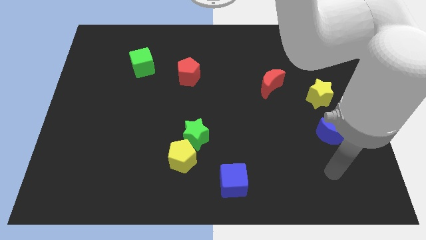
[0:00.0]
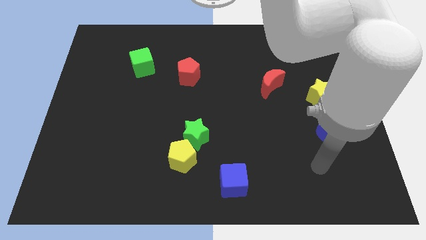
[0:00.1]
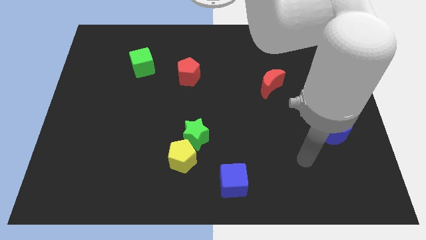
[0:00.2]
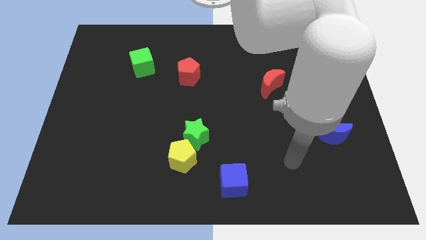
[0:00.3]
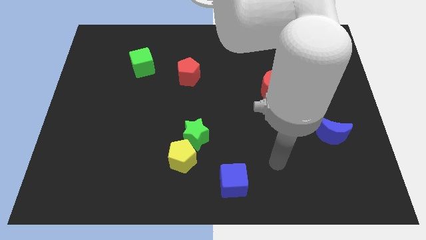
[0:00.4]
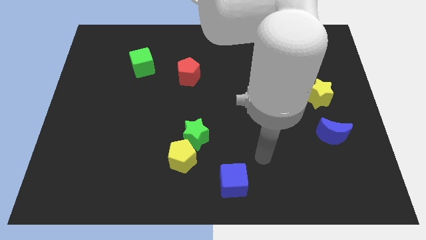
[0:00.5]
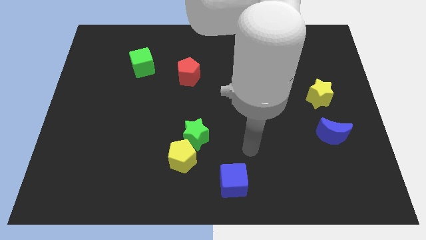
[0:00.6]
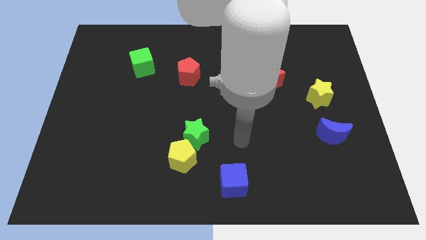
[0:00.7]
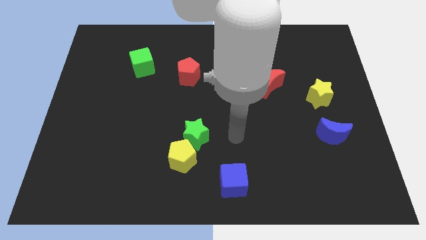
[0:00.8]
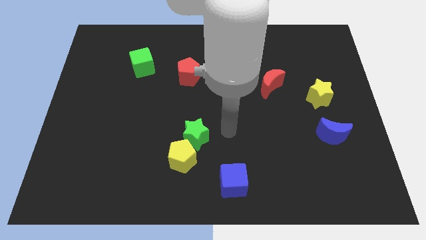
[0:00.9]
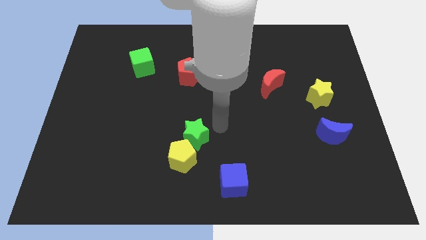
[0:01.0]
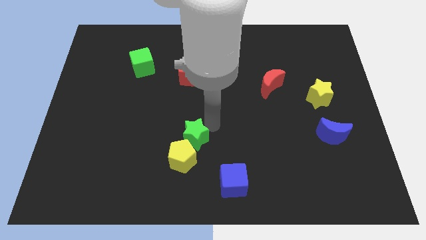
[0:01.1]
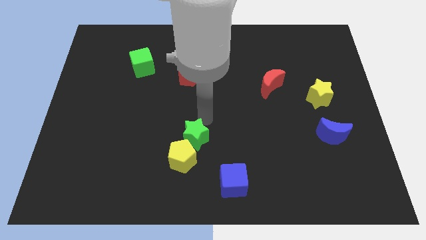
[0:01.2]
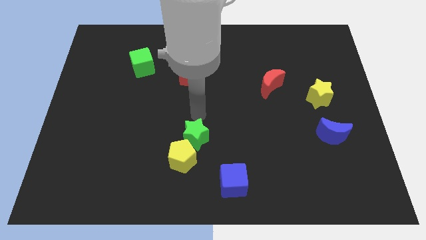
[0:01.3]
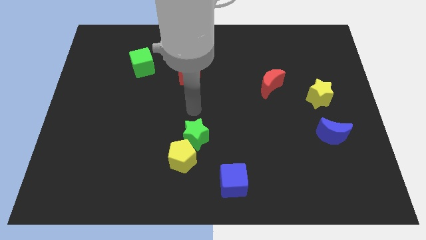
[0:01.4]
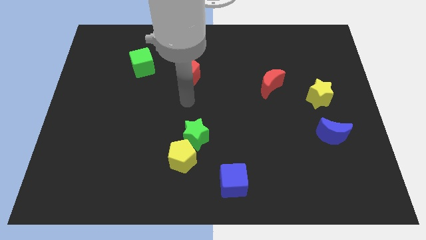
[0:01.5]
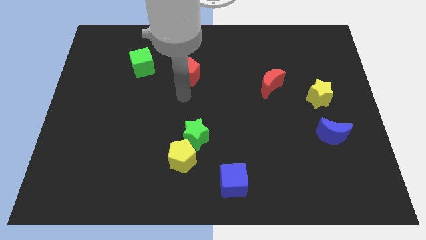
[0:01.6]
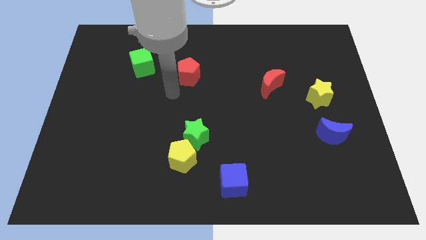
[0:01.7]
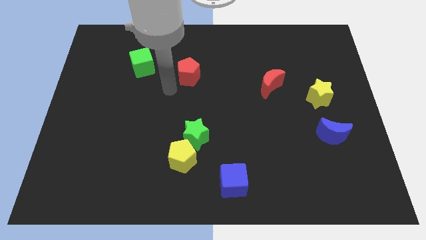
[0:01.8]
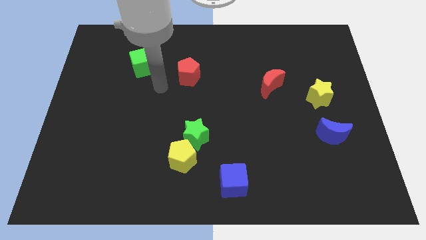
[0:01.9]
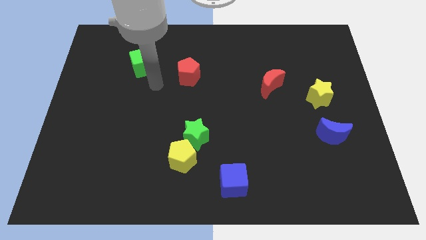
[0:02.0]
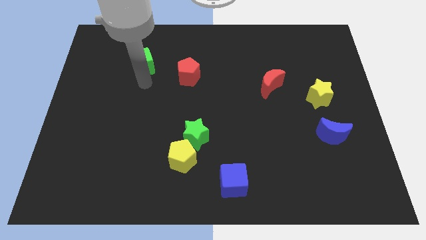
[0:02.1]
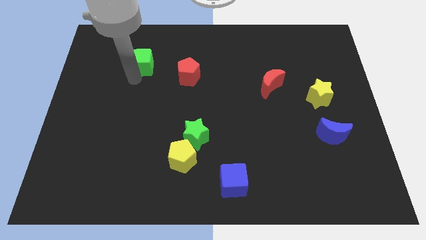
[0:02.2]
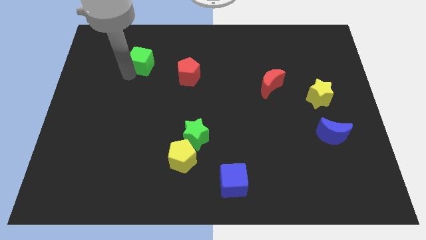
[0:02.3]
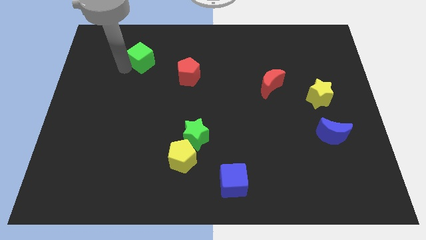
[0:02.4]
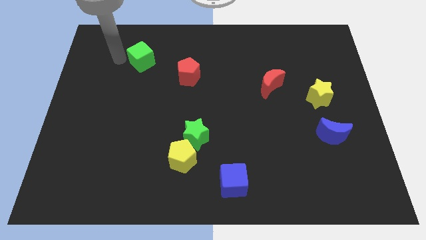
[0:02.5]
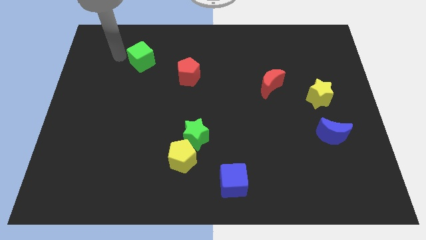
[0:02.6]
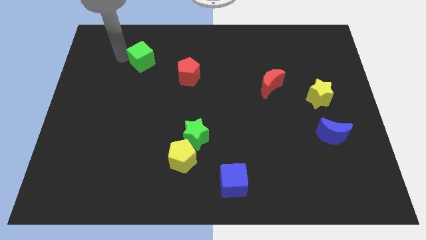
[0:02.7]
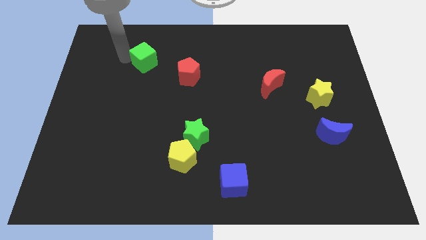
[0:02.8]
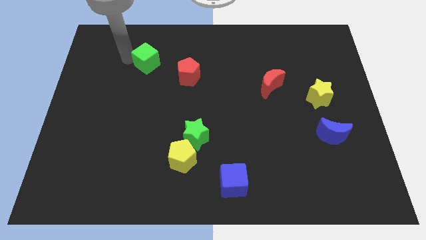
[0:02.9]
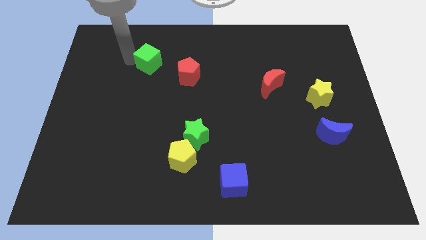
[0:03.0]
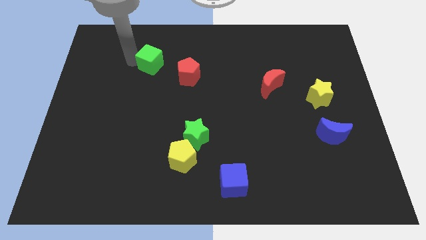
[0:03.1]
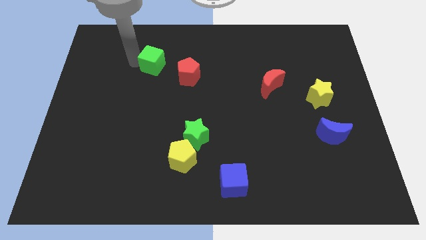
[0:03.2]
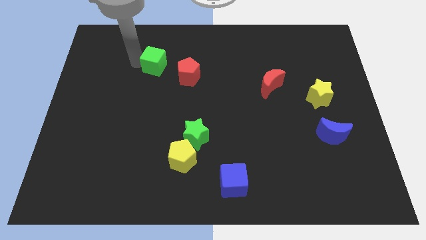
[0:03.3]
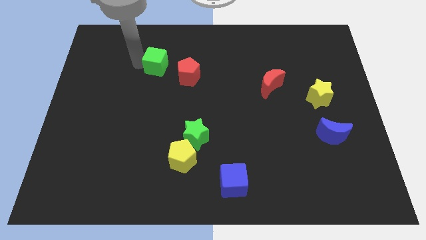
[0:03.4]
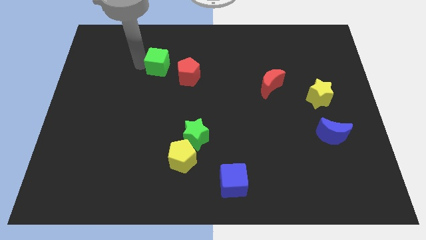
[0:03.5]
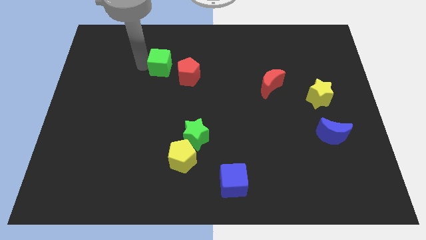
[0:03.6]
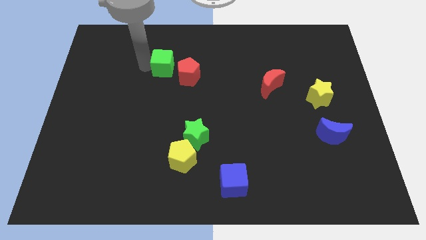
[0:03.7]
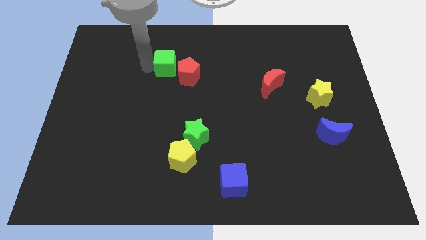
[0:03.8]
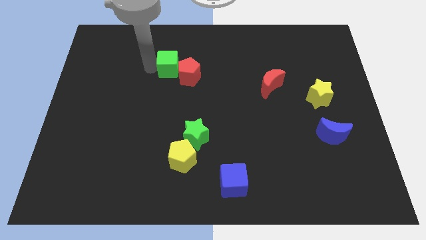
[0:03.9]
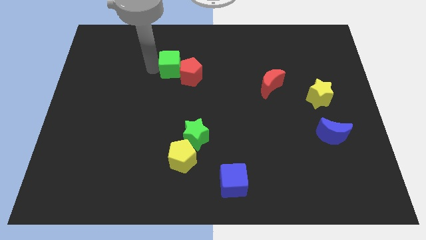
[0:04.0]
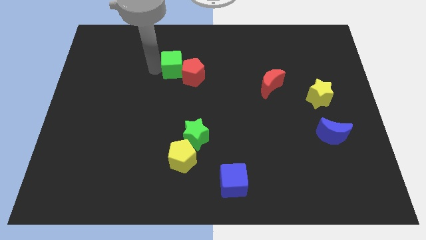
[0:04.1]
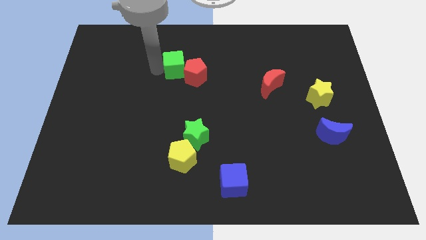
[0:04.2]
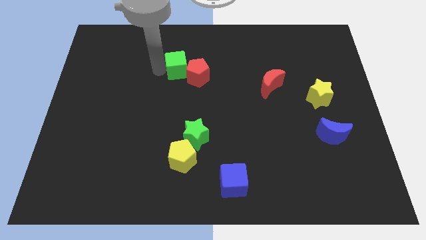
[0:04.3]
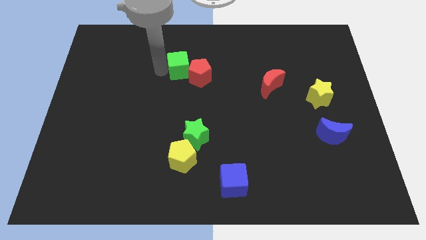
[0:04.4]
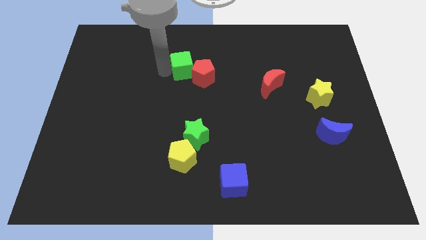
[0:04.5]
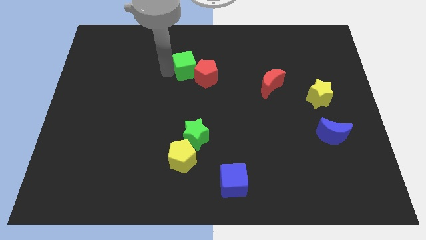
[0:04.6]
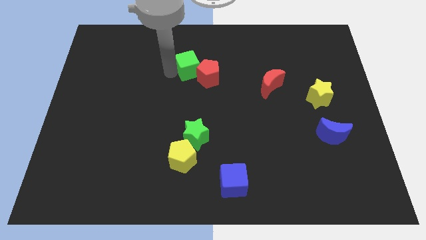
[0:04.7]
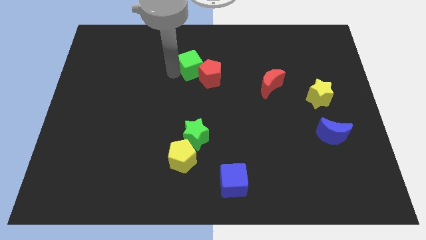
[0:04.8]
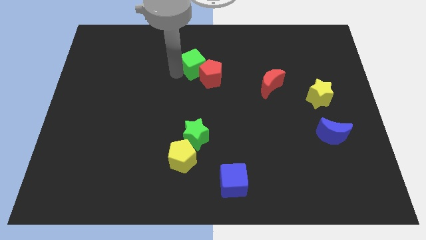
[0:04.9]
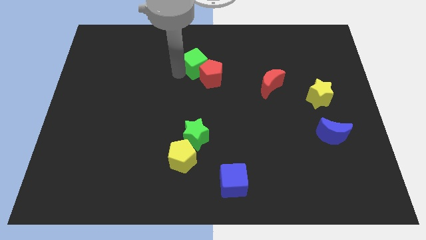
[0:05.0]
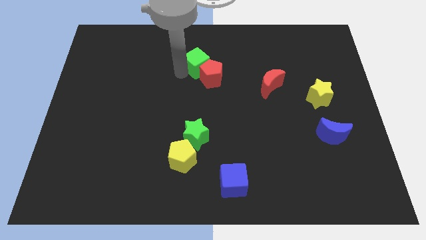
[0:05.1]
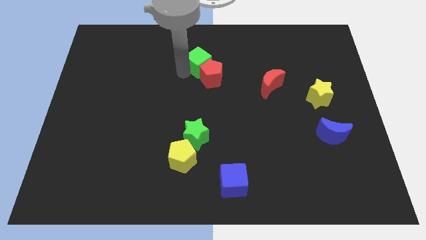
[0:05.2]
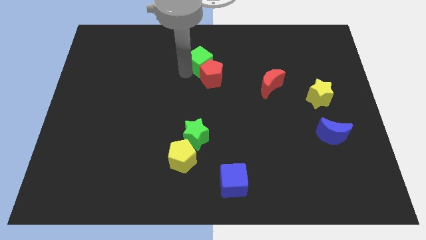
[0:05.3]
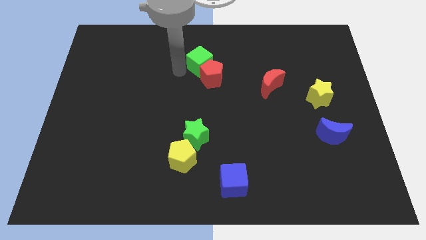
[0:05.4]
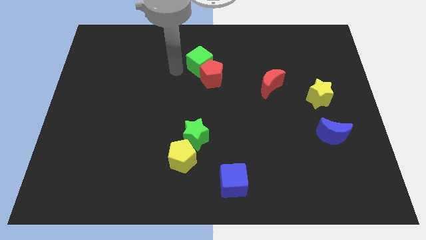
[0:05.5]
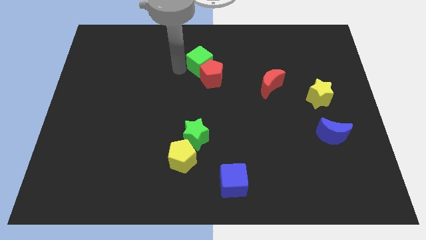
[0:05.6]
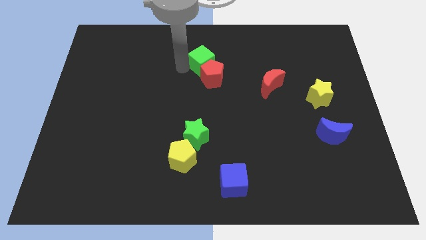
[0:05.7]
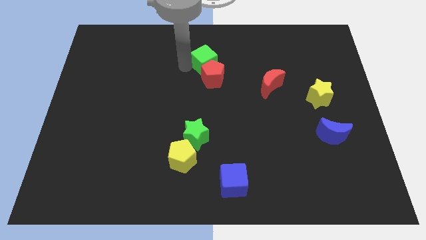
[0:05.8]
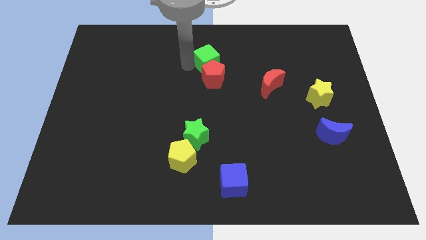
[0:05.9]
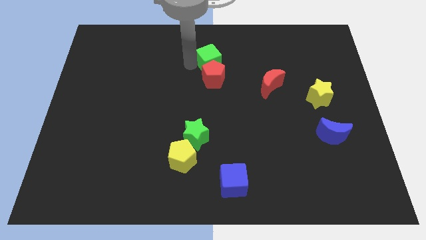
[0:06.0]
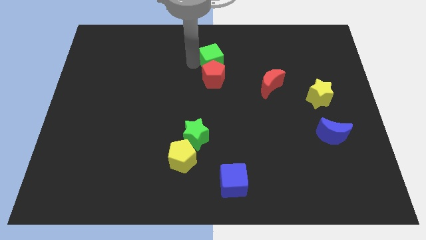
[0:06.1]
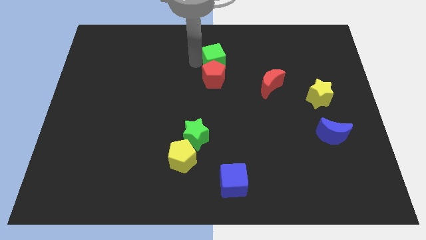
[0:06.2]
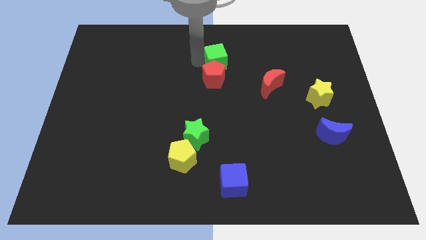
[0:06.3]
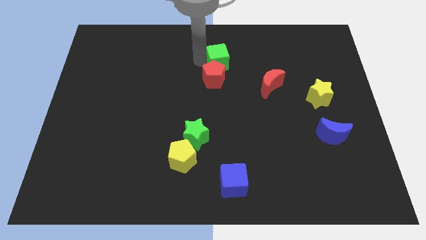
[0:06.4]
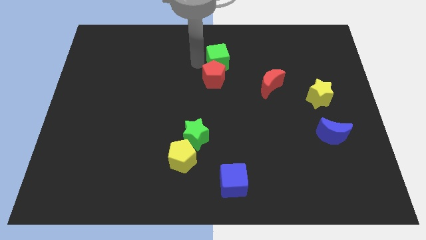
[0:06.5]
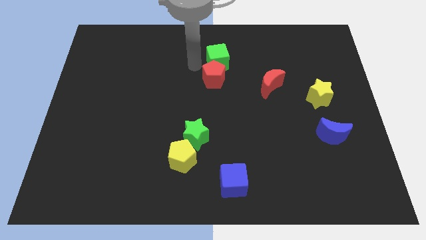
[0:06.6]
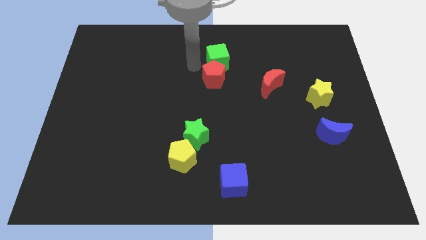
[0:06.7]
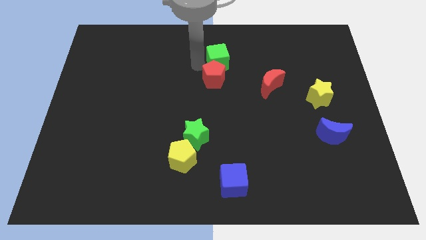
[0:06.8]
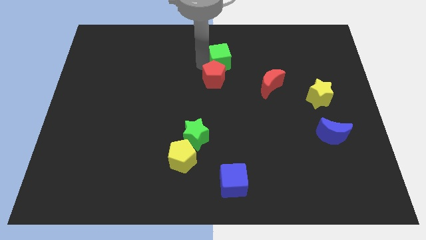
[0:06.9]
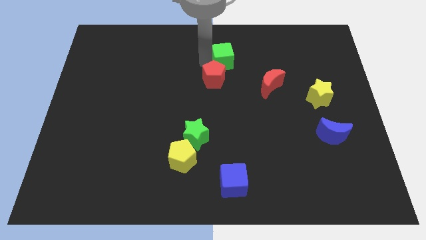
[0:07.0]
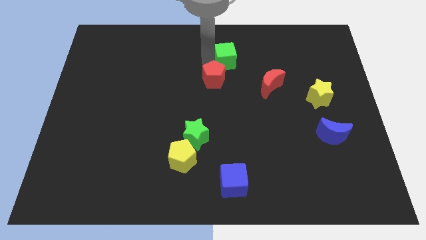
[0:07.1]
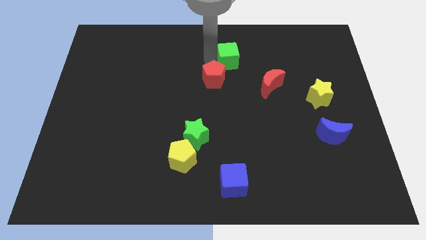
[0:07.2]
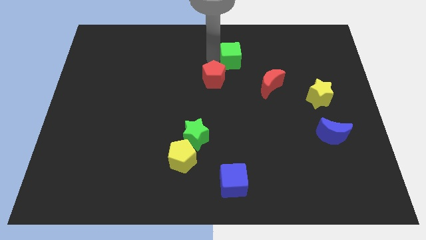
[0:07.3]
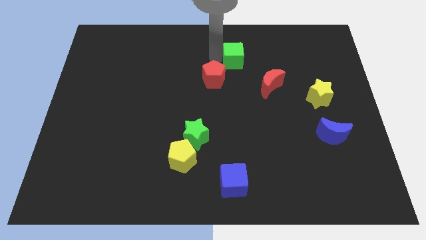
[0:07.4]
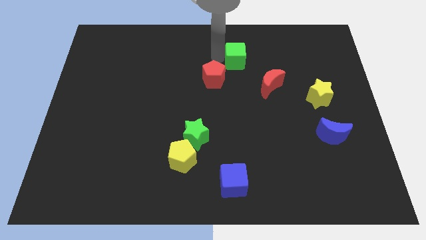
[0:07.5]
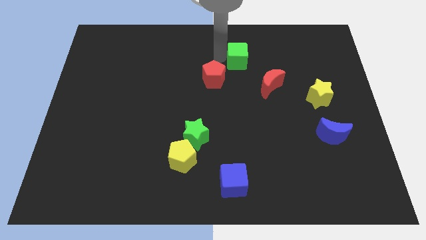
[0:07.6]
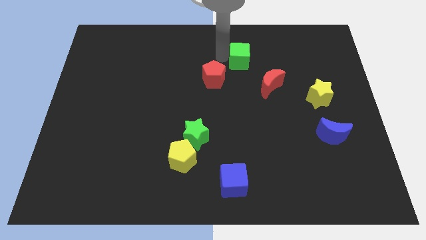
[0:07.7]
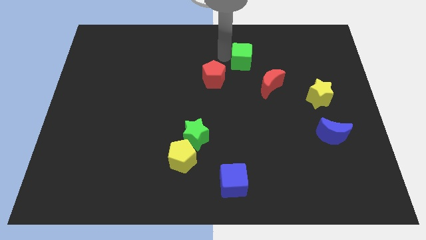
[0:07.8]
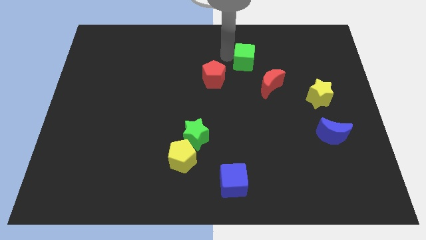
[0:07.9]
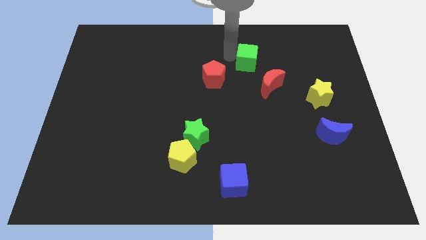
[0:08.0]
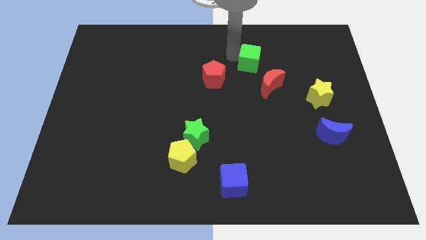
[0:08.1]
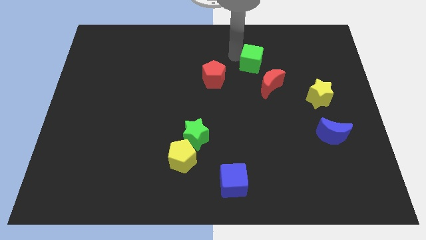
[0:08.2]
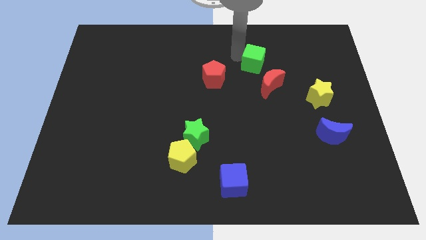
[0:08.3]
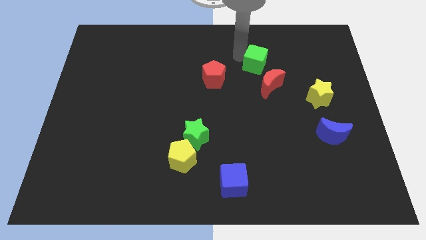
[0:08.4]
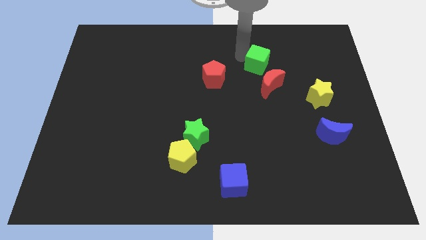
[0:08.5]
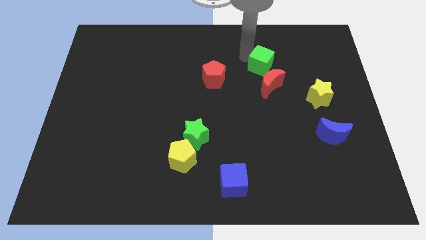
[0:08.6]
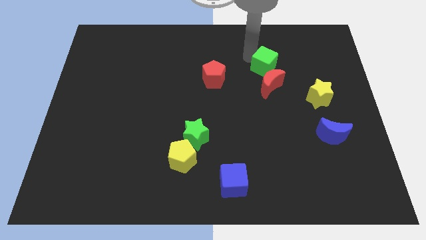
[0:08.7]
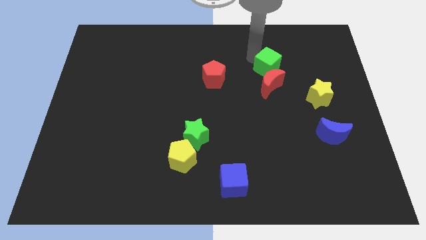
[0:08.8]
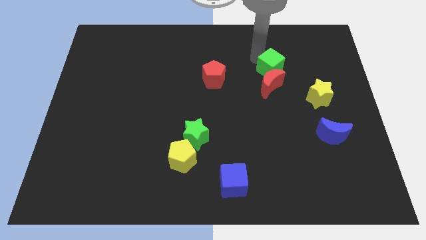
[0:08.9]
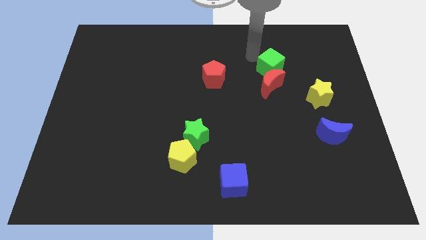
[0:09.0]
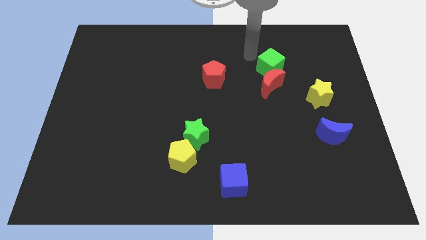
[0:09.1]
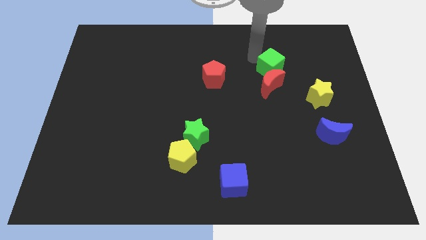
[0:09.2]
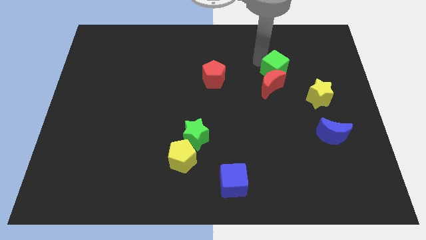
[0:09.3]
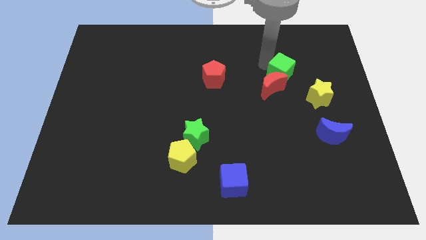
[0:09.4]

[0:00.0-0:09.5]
slide the green cube to the top left of the yellow star
